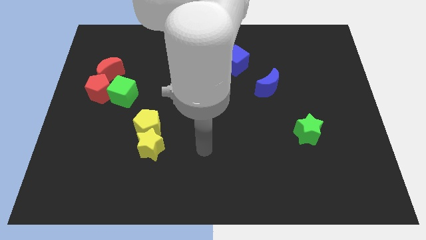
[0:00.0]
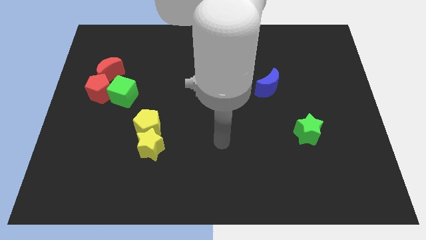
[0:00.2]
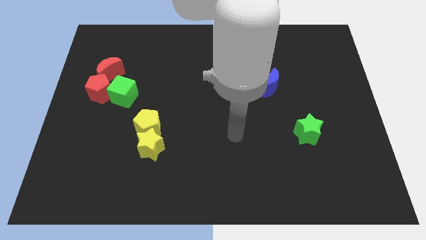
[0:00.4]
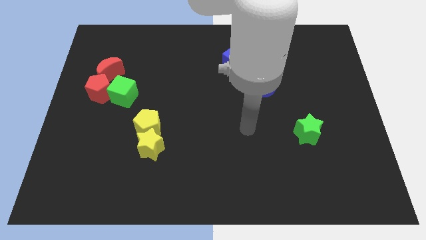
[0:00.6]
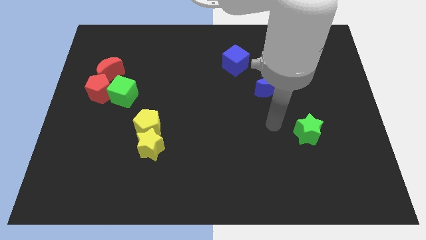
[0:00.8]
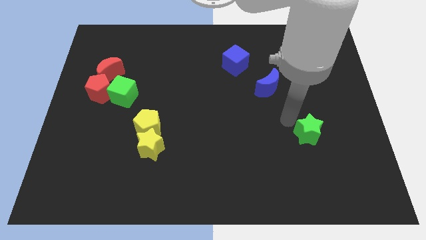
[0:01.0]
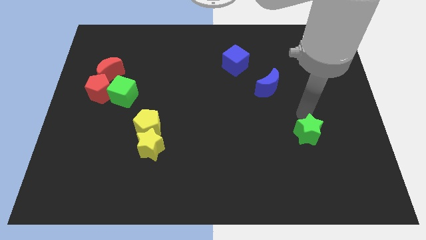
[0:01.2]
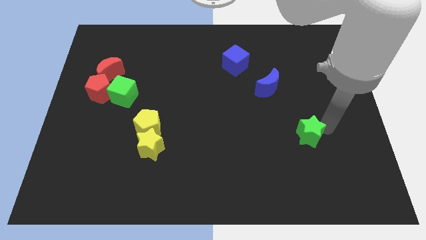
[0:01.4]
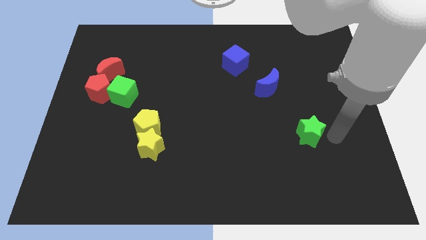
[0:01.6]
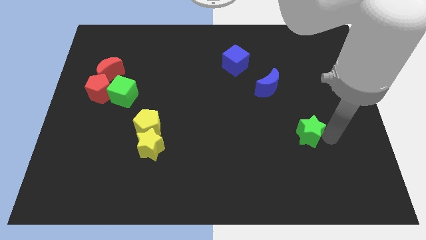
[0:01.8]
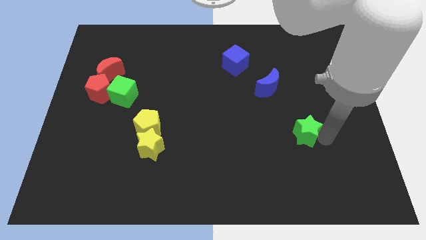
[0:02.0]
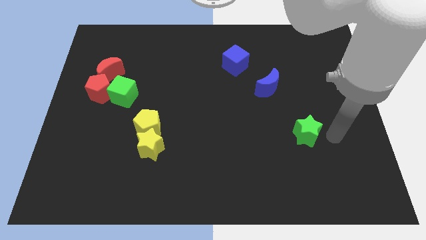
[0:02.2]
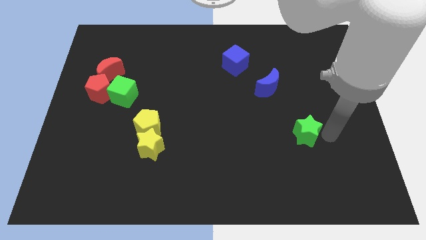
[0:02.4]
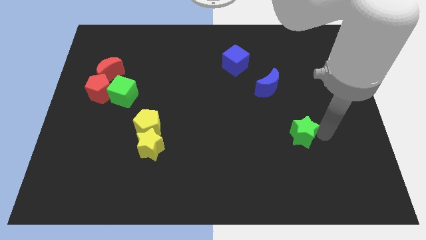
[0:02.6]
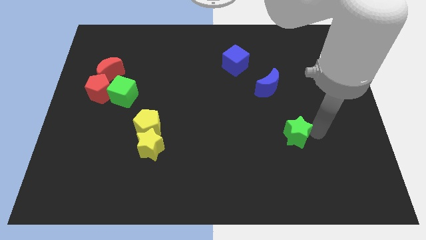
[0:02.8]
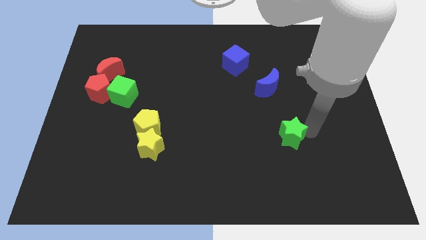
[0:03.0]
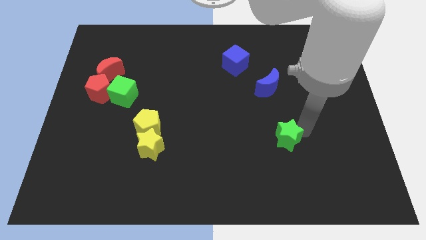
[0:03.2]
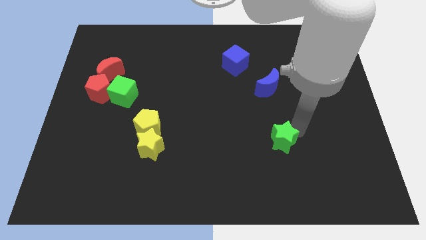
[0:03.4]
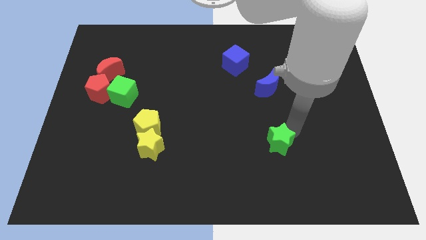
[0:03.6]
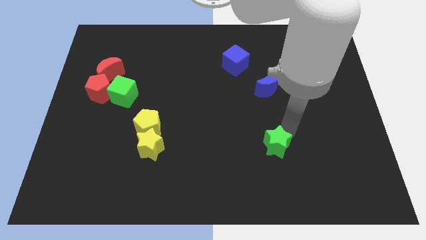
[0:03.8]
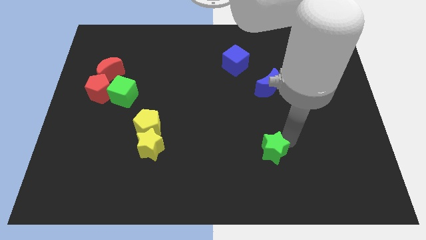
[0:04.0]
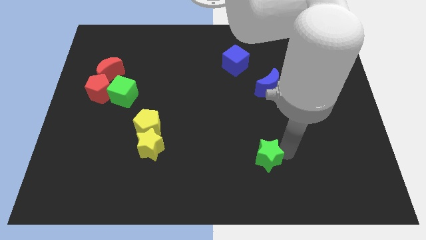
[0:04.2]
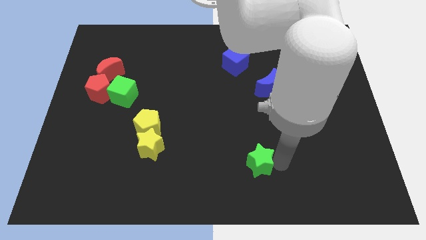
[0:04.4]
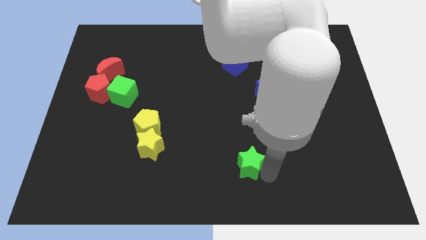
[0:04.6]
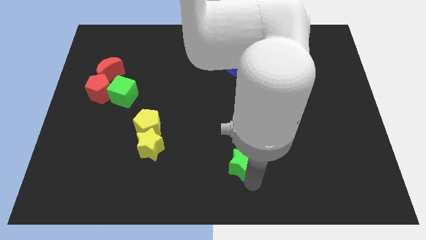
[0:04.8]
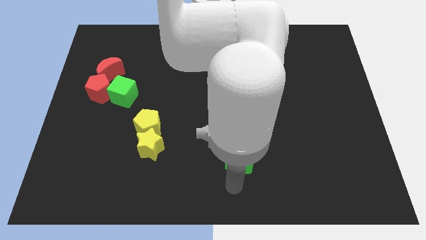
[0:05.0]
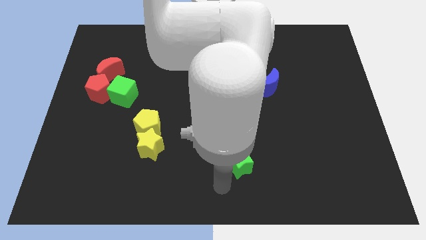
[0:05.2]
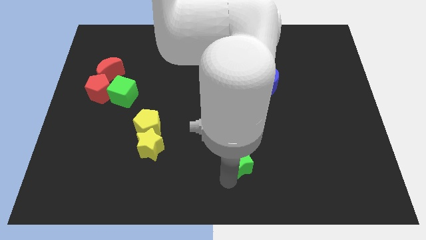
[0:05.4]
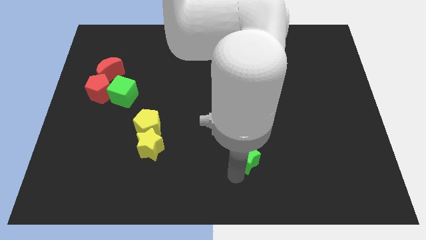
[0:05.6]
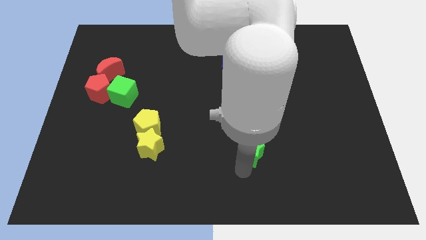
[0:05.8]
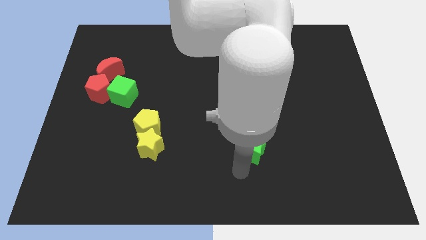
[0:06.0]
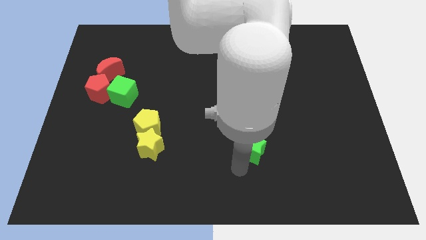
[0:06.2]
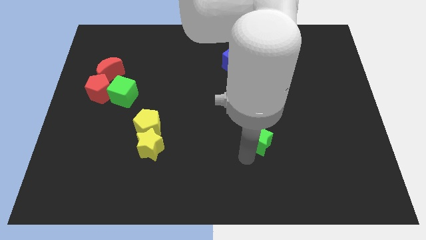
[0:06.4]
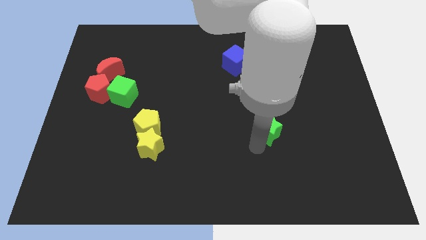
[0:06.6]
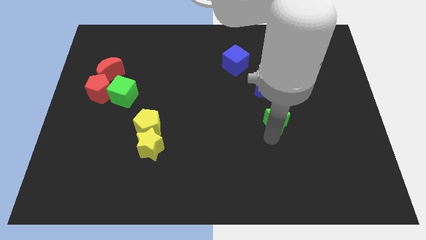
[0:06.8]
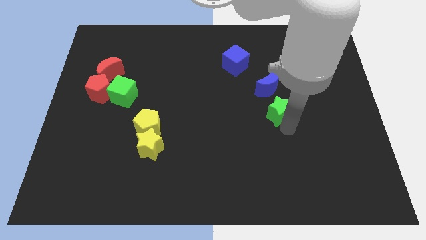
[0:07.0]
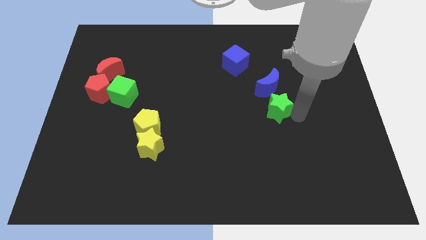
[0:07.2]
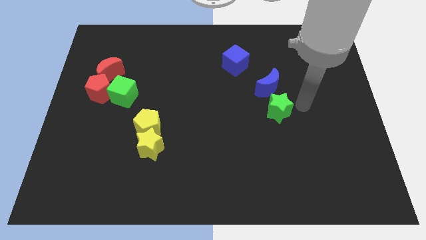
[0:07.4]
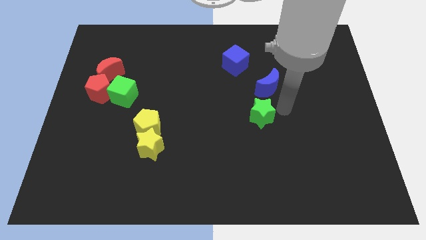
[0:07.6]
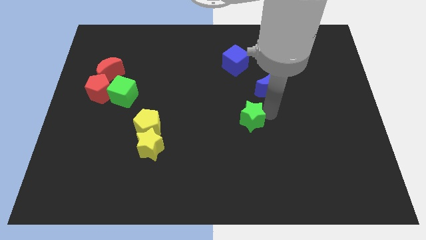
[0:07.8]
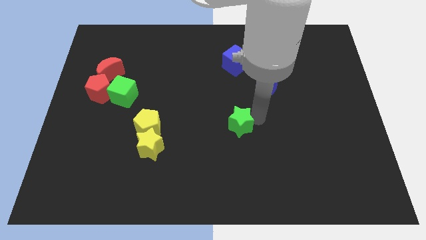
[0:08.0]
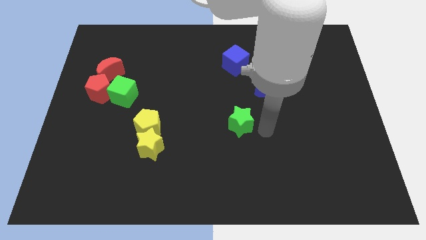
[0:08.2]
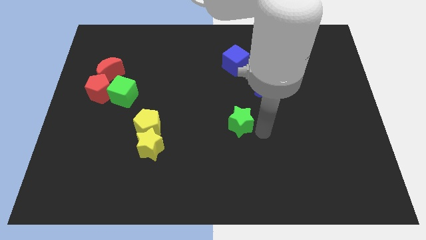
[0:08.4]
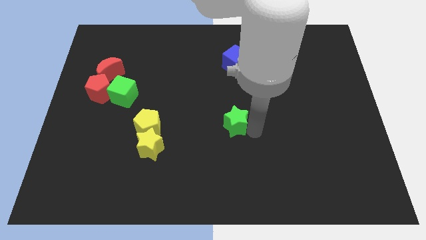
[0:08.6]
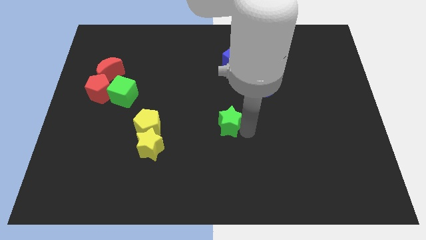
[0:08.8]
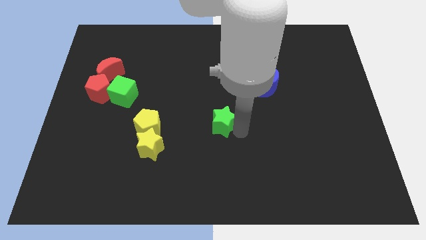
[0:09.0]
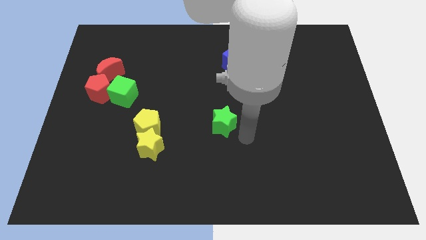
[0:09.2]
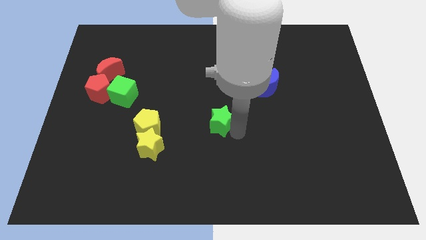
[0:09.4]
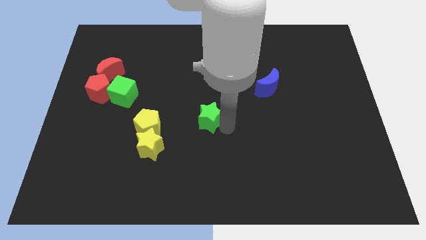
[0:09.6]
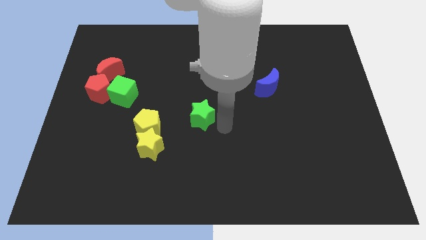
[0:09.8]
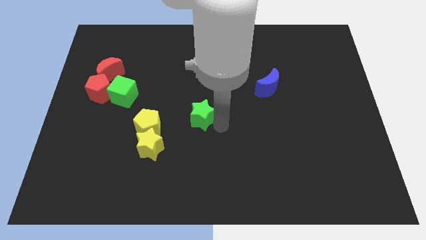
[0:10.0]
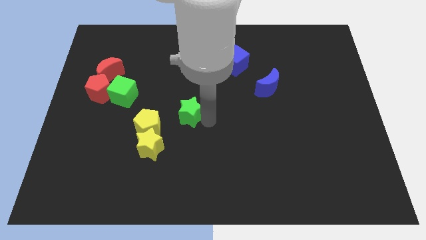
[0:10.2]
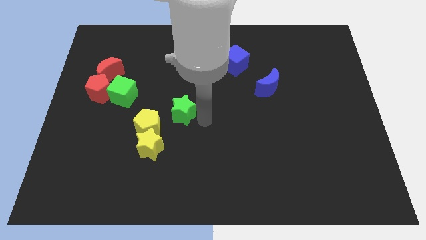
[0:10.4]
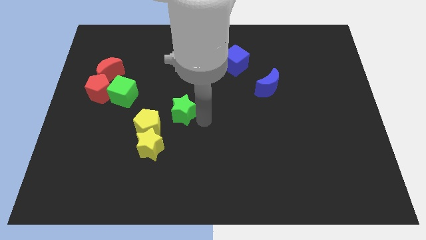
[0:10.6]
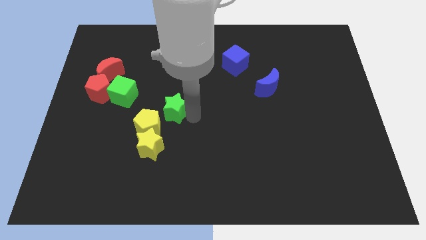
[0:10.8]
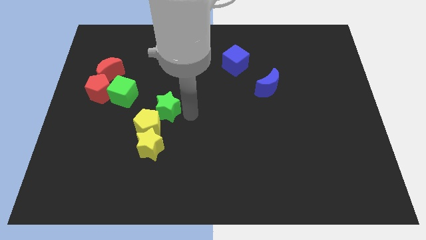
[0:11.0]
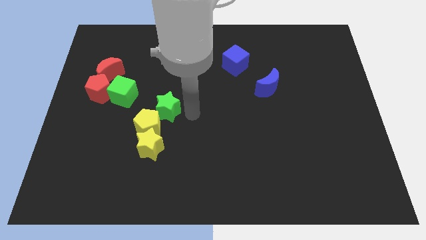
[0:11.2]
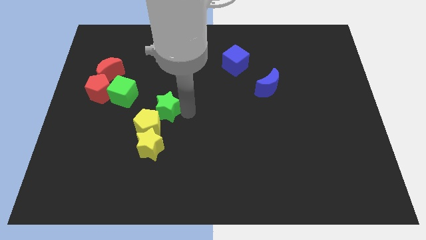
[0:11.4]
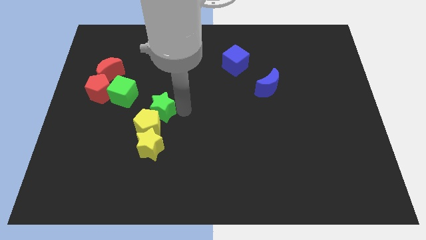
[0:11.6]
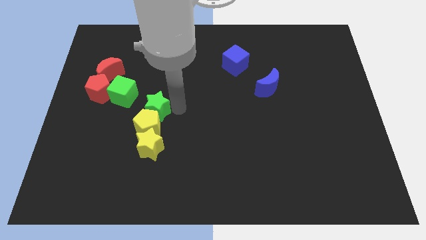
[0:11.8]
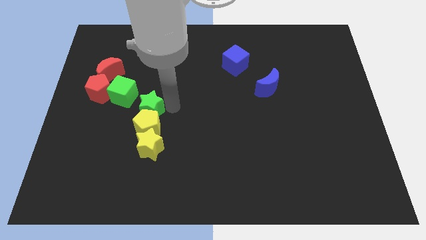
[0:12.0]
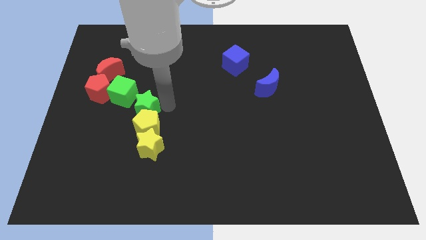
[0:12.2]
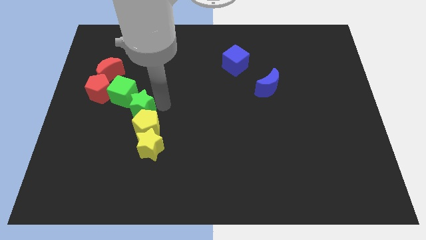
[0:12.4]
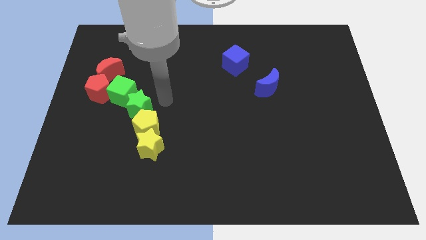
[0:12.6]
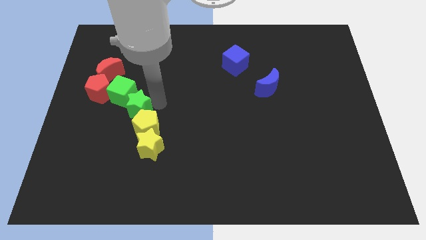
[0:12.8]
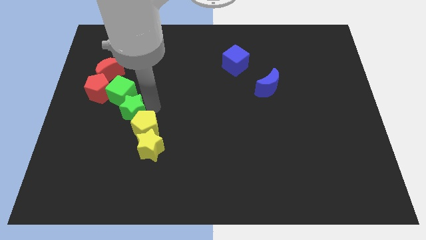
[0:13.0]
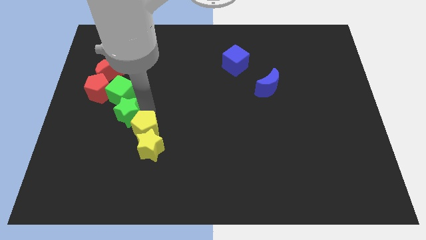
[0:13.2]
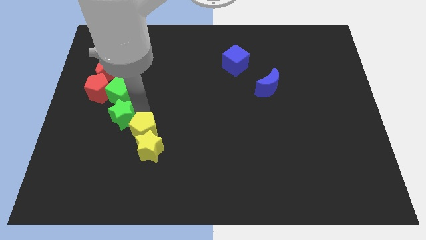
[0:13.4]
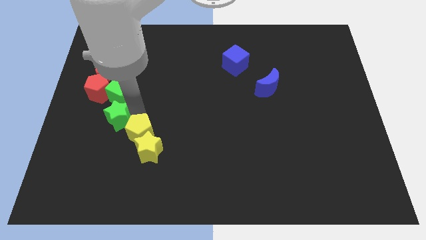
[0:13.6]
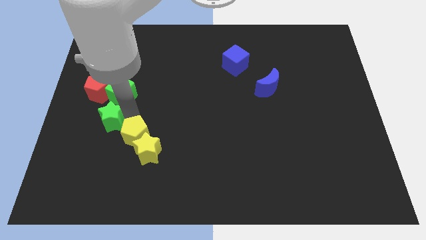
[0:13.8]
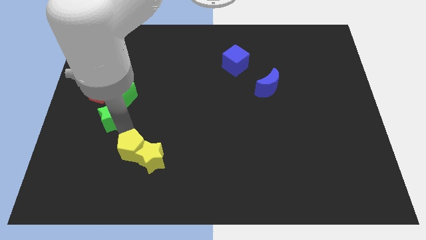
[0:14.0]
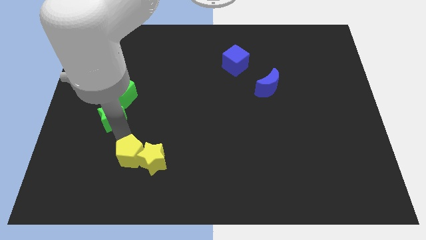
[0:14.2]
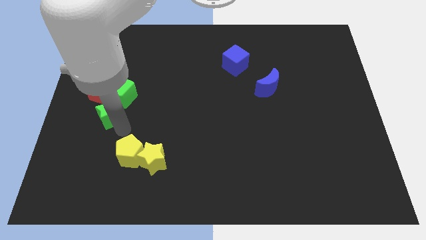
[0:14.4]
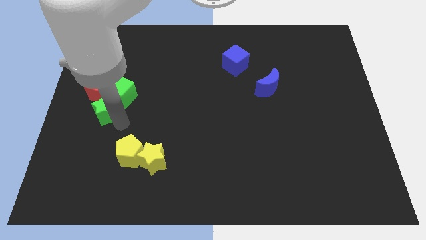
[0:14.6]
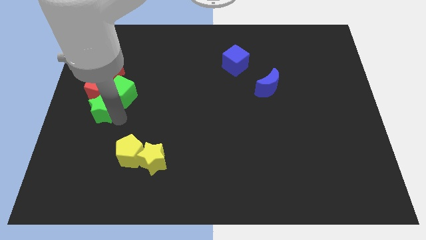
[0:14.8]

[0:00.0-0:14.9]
push the green star close to the red pentagon
